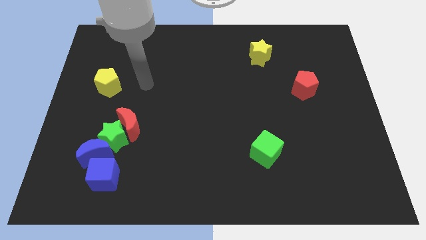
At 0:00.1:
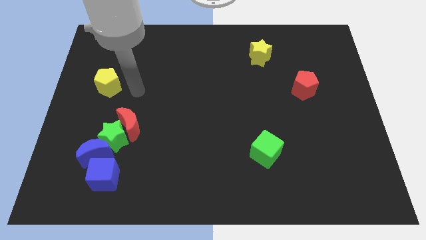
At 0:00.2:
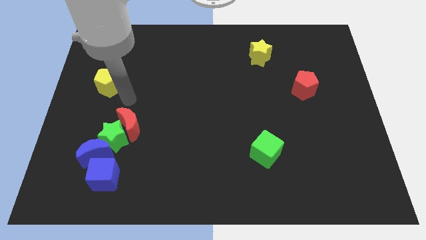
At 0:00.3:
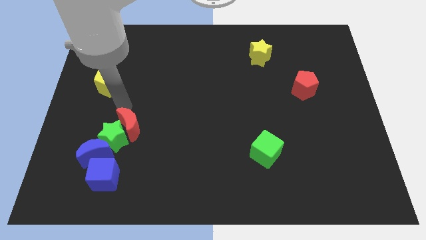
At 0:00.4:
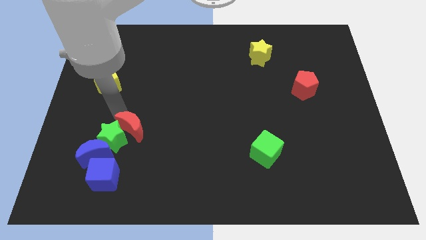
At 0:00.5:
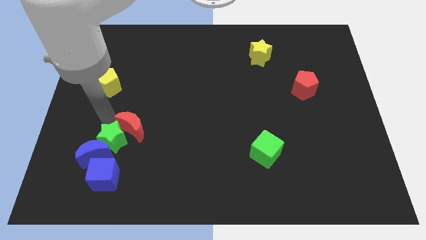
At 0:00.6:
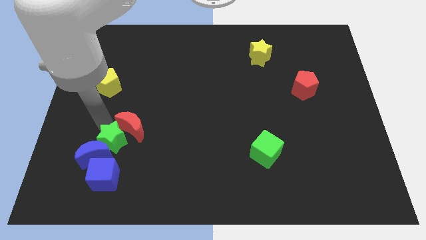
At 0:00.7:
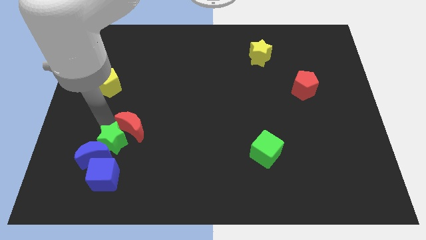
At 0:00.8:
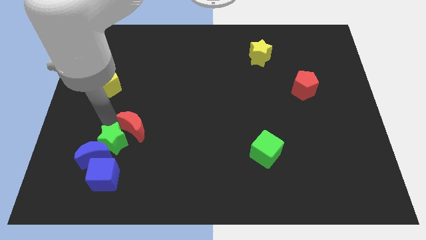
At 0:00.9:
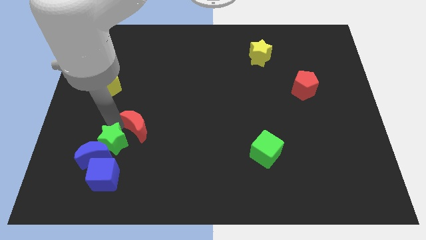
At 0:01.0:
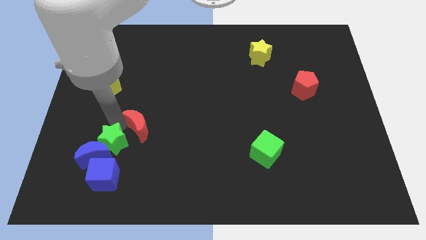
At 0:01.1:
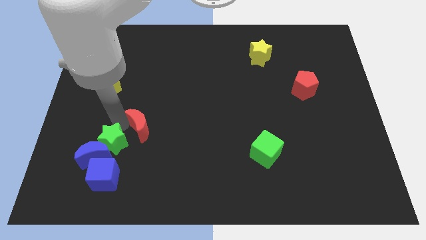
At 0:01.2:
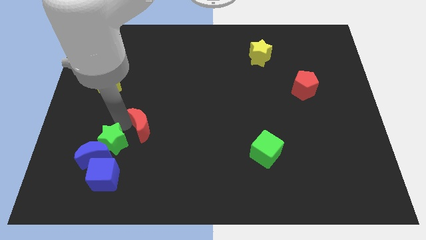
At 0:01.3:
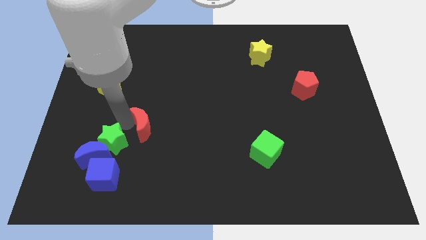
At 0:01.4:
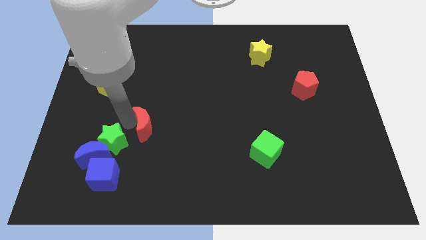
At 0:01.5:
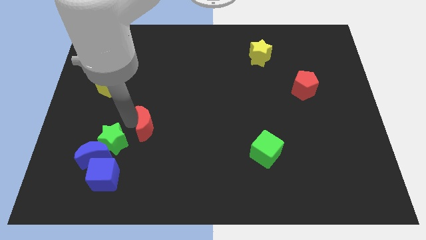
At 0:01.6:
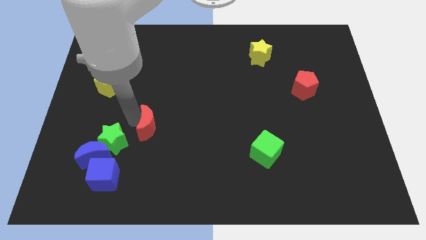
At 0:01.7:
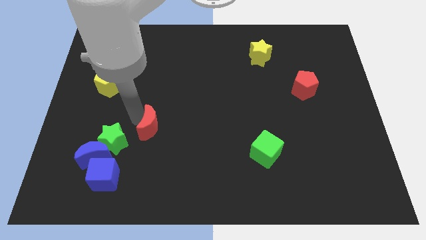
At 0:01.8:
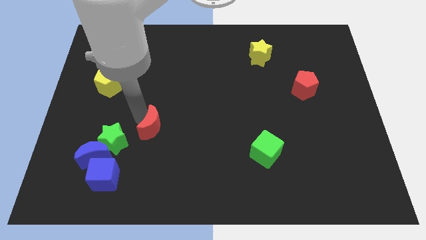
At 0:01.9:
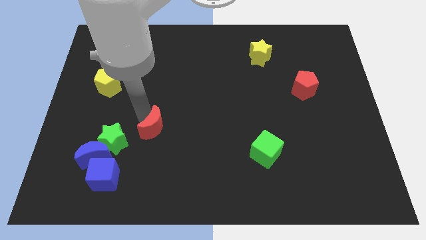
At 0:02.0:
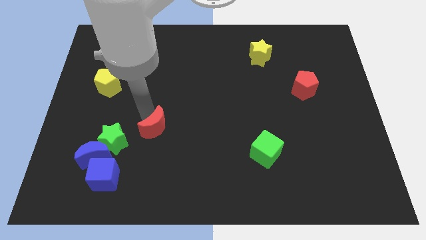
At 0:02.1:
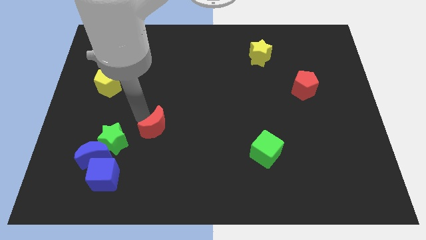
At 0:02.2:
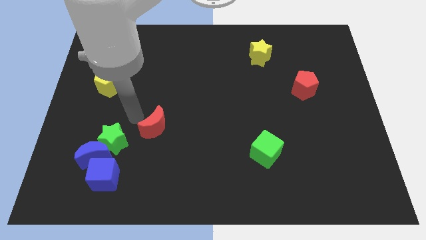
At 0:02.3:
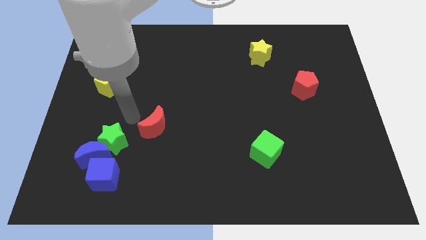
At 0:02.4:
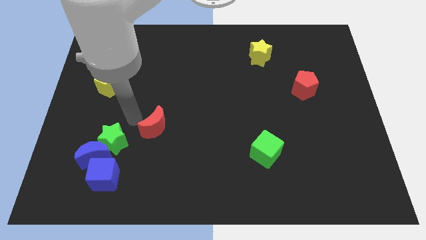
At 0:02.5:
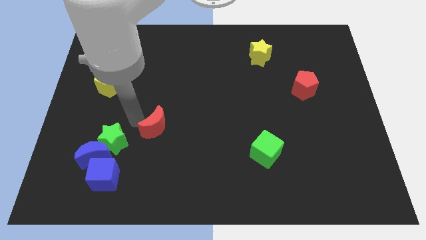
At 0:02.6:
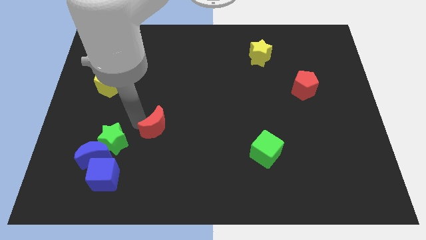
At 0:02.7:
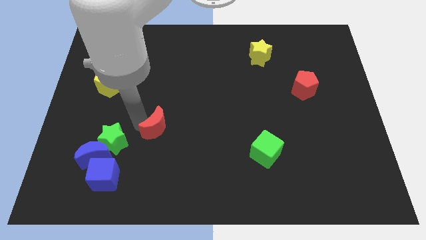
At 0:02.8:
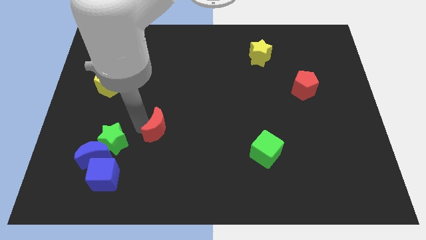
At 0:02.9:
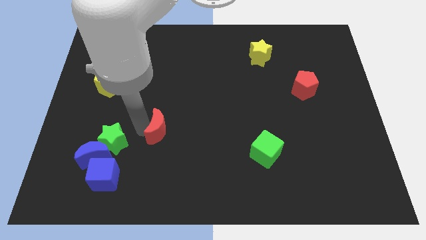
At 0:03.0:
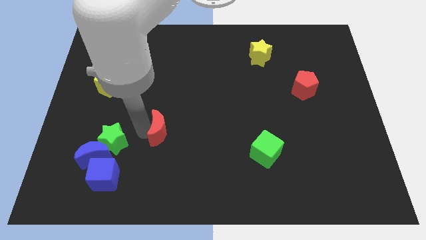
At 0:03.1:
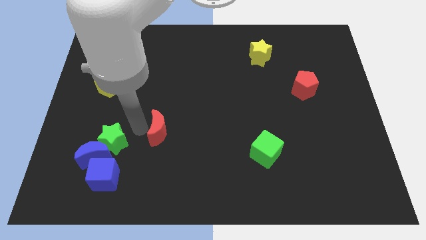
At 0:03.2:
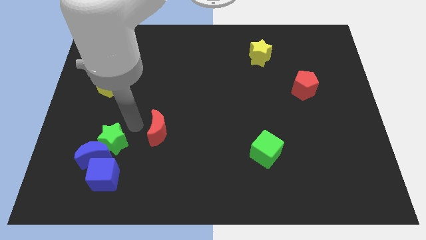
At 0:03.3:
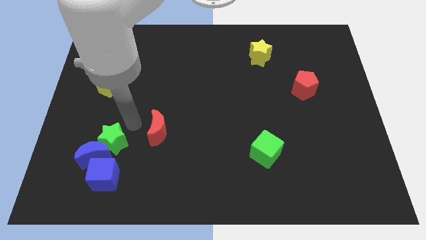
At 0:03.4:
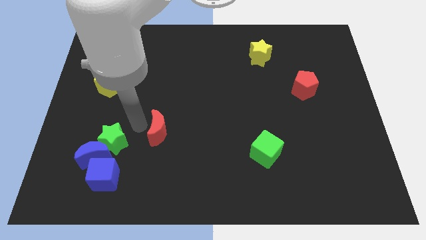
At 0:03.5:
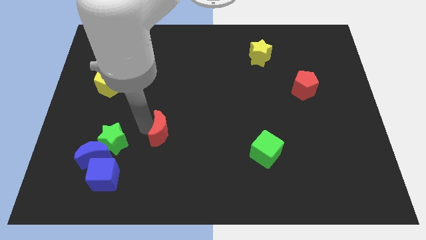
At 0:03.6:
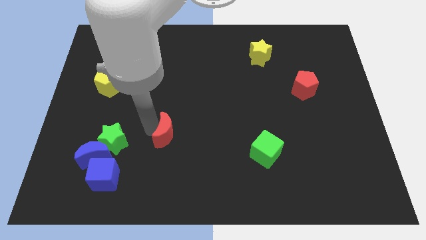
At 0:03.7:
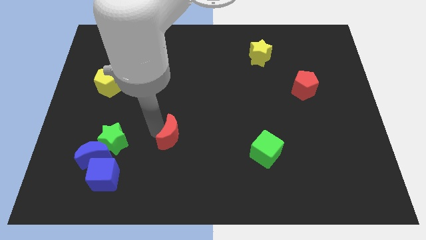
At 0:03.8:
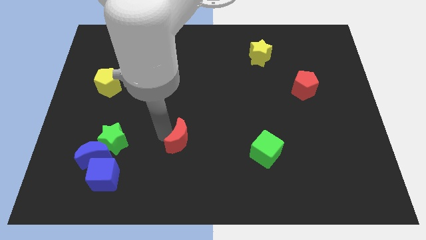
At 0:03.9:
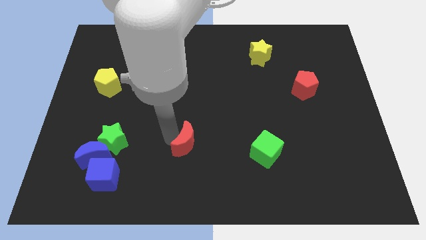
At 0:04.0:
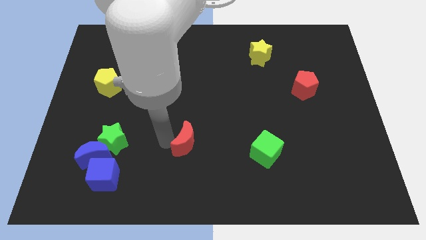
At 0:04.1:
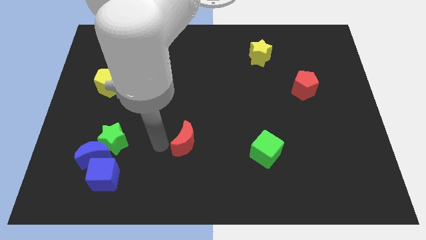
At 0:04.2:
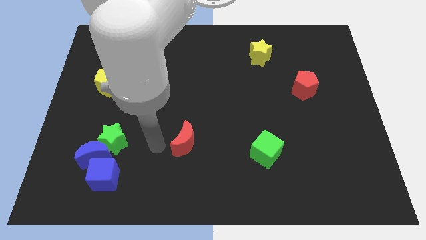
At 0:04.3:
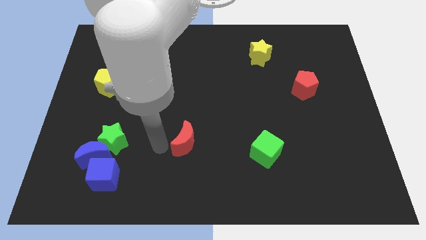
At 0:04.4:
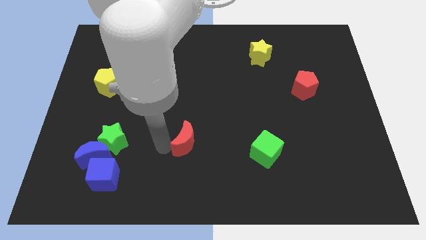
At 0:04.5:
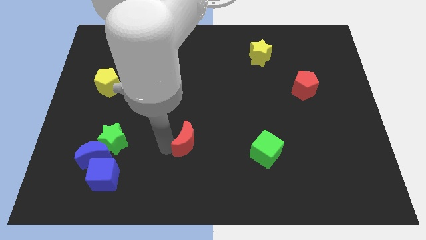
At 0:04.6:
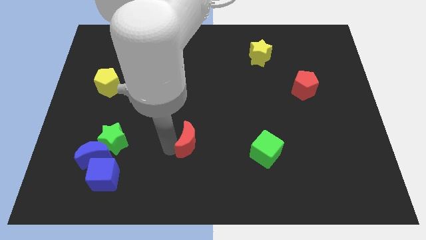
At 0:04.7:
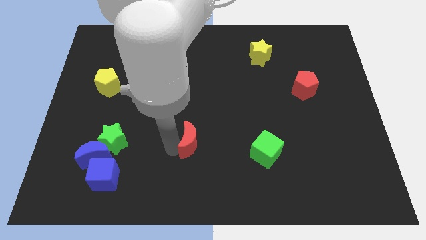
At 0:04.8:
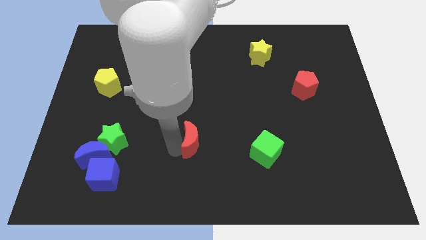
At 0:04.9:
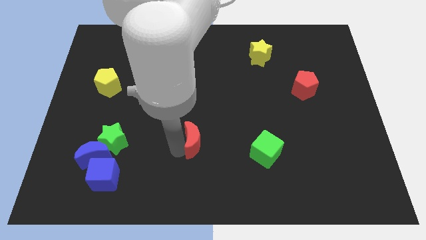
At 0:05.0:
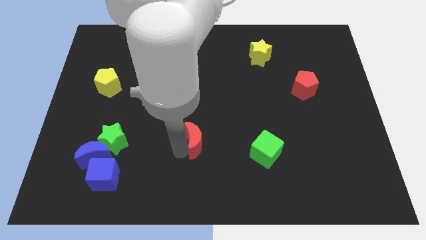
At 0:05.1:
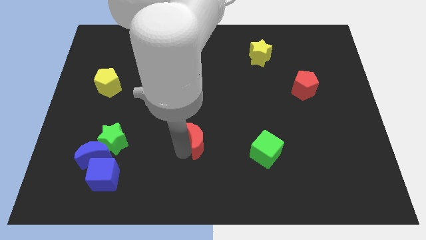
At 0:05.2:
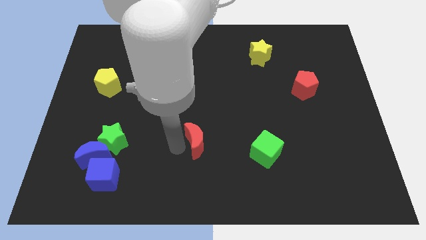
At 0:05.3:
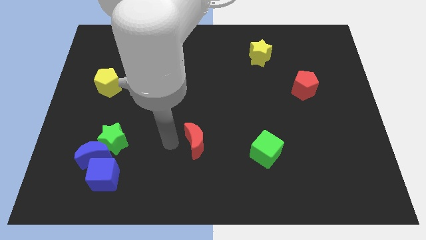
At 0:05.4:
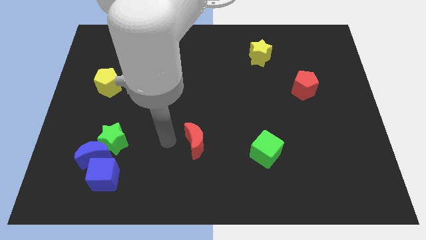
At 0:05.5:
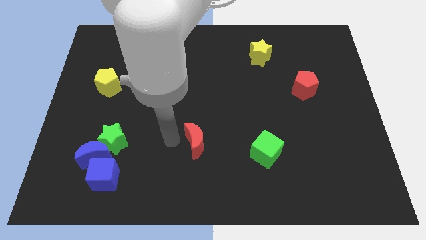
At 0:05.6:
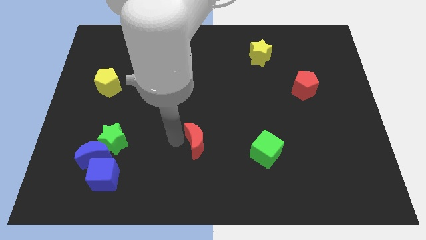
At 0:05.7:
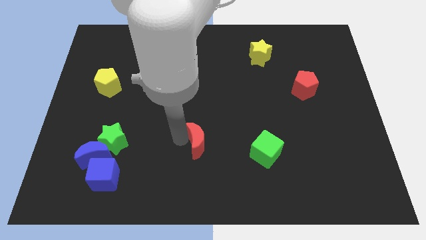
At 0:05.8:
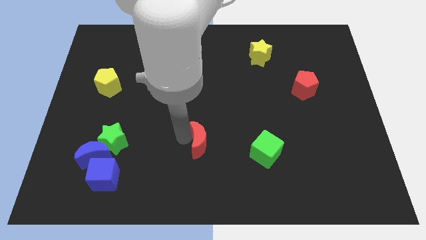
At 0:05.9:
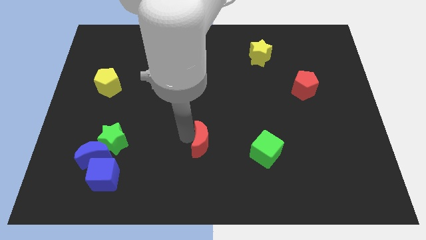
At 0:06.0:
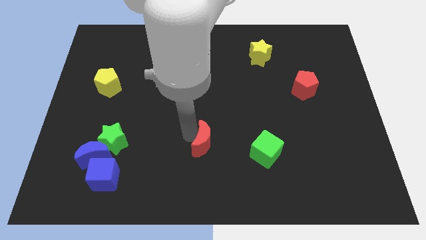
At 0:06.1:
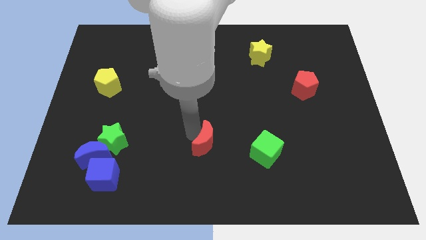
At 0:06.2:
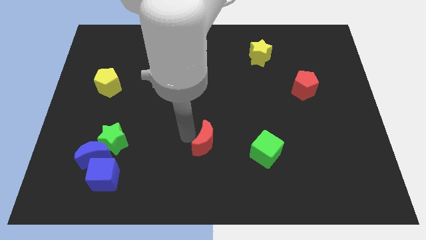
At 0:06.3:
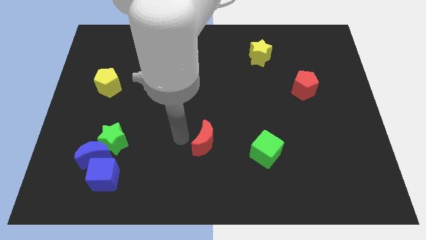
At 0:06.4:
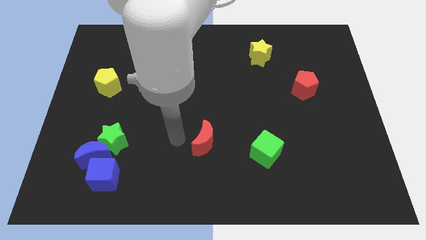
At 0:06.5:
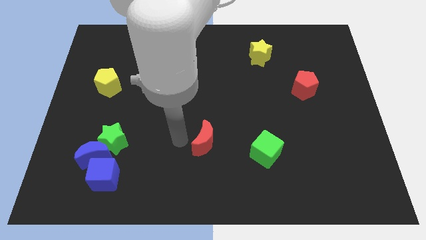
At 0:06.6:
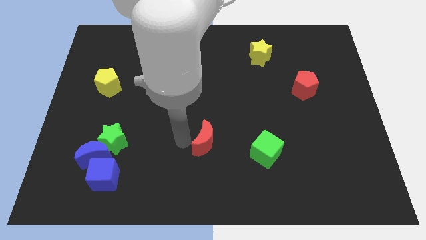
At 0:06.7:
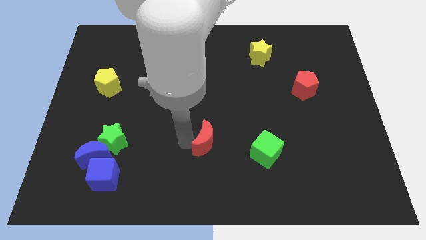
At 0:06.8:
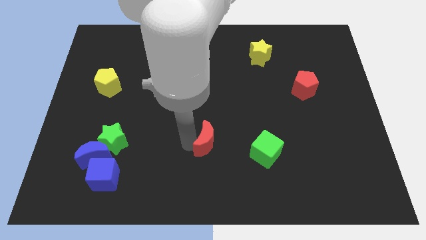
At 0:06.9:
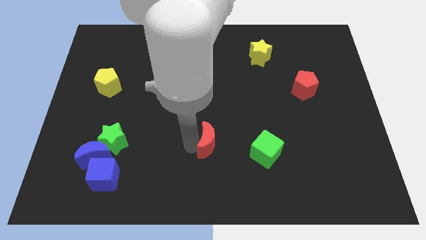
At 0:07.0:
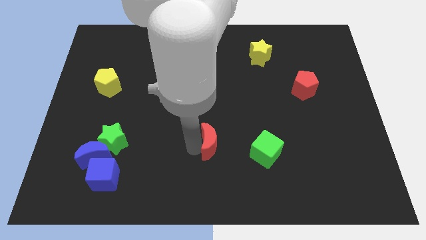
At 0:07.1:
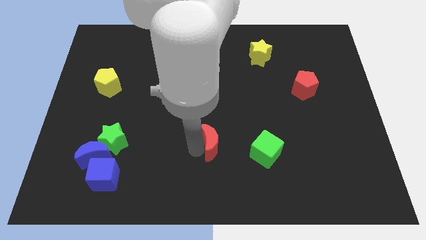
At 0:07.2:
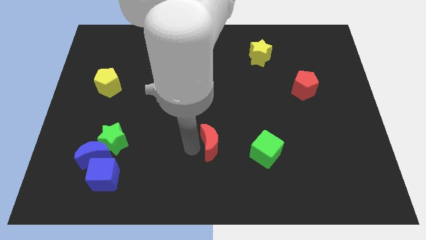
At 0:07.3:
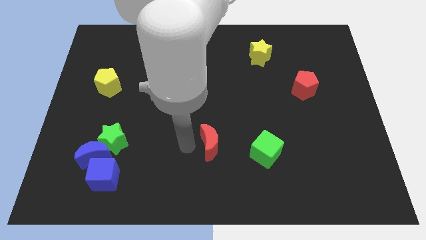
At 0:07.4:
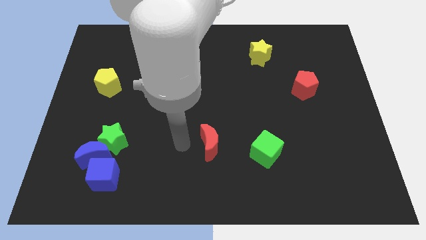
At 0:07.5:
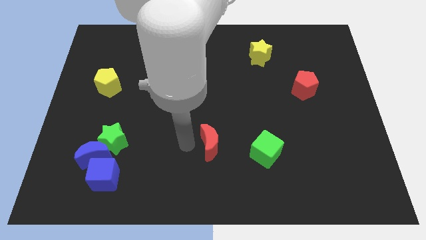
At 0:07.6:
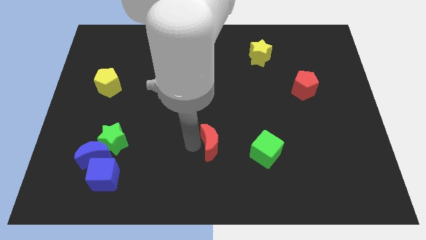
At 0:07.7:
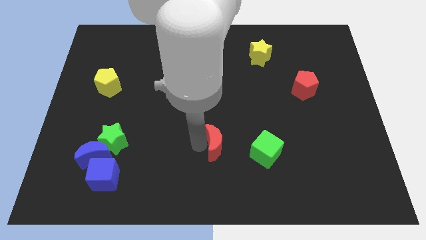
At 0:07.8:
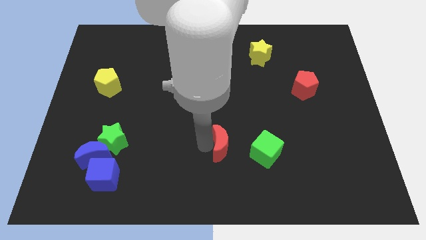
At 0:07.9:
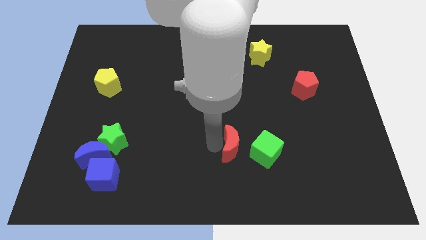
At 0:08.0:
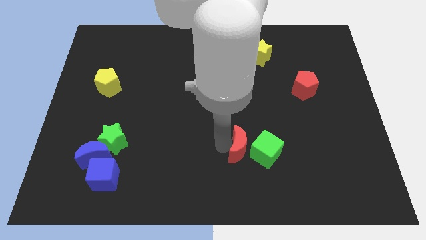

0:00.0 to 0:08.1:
slide the red moon close to the green cube
